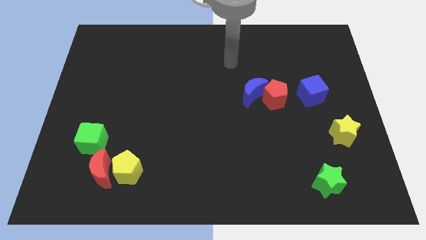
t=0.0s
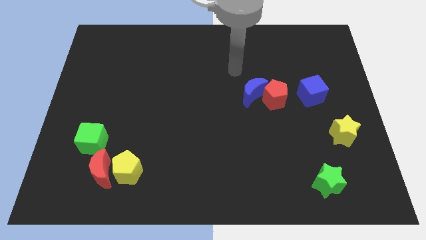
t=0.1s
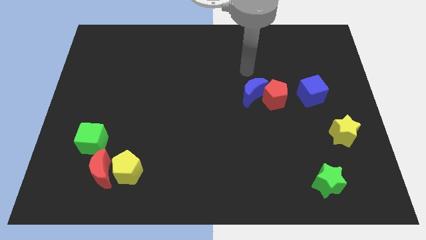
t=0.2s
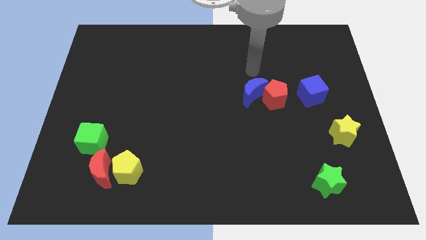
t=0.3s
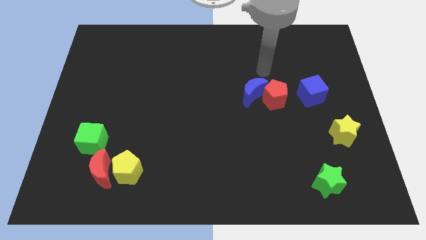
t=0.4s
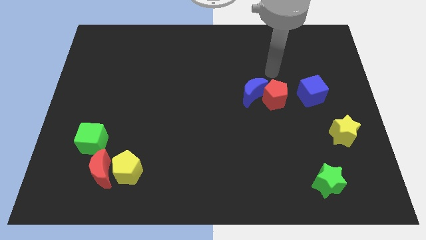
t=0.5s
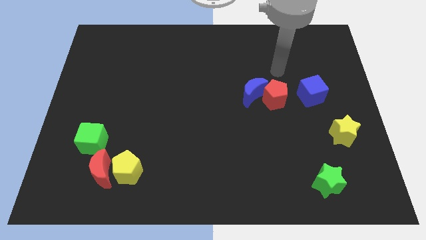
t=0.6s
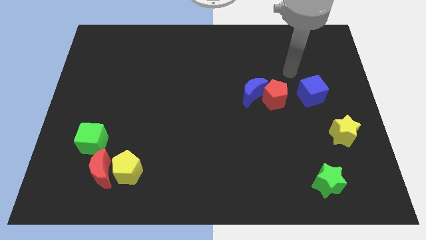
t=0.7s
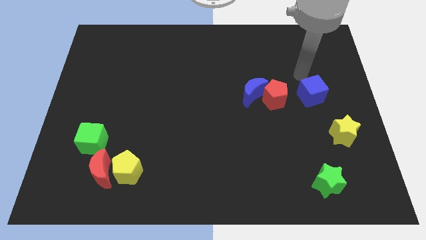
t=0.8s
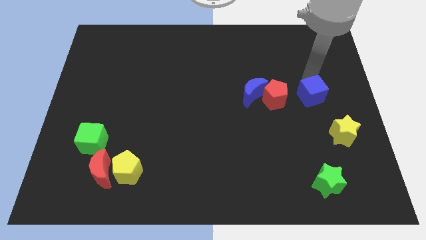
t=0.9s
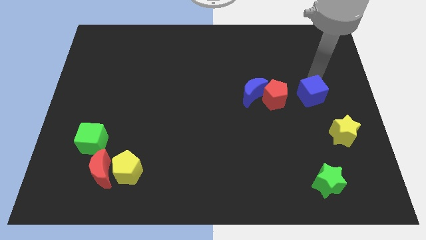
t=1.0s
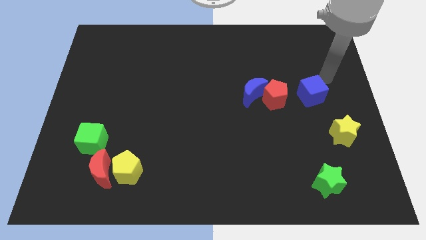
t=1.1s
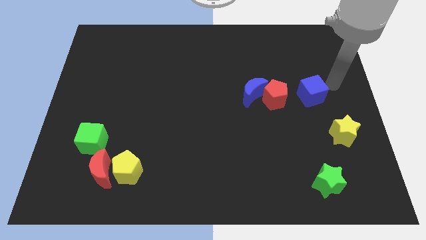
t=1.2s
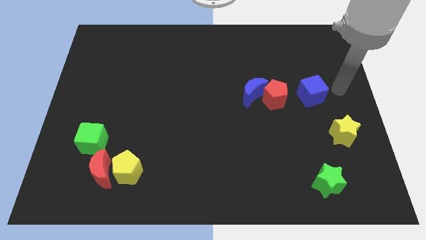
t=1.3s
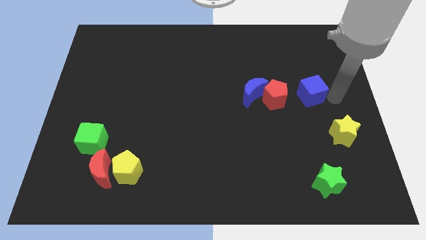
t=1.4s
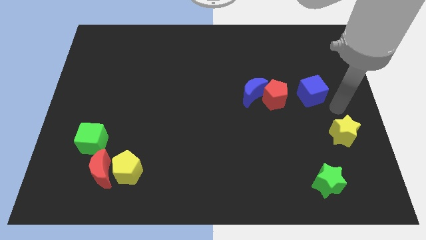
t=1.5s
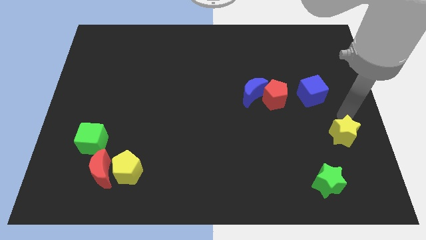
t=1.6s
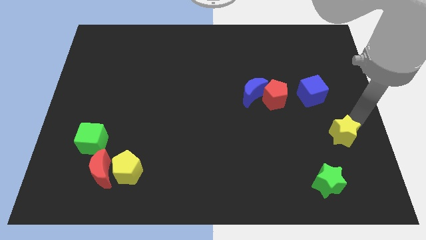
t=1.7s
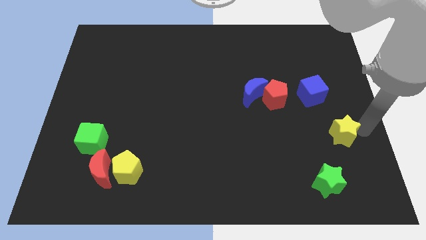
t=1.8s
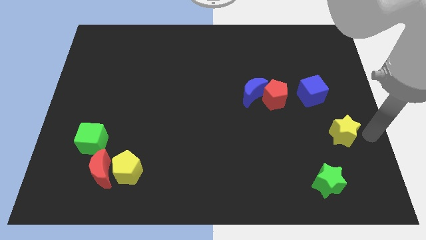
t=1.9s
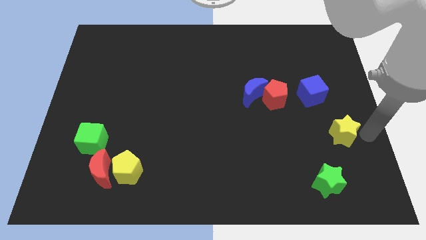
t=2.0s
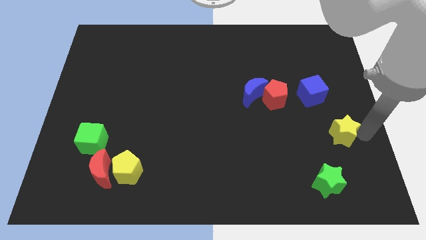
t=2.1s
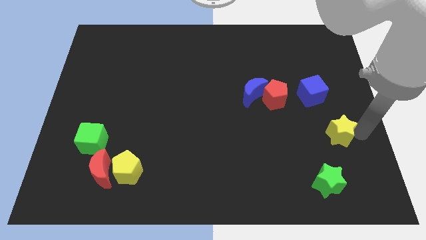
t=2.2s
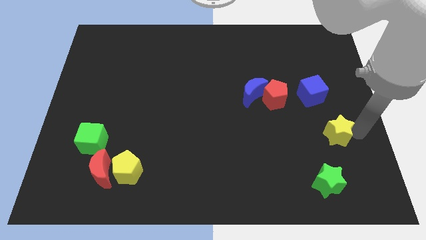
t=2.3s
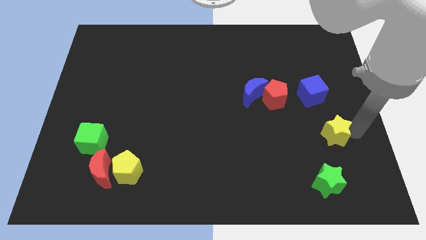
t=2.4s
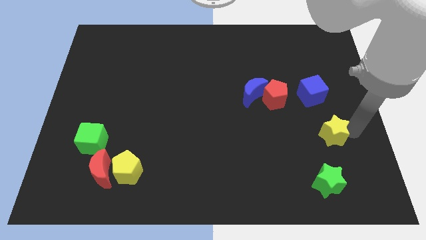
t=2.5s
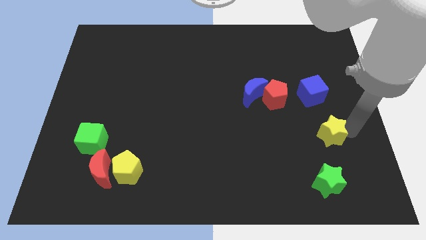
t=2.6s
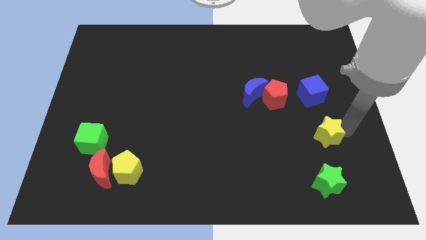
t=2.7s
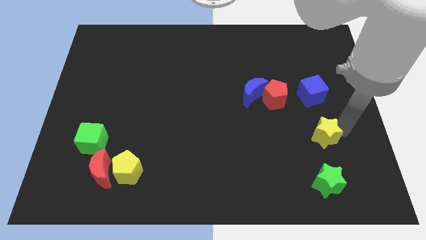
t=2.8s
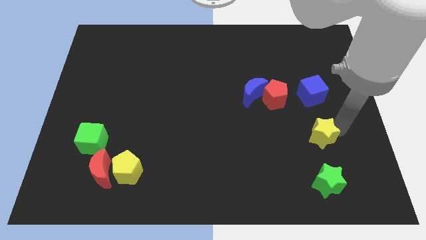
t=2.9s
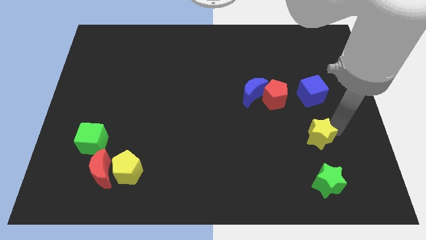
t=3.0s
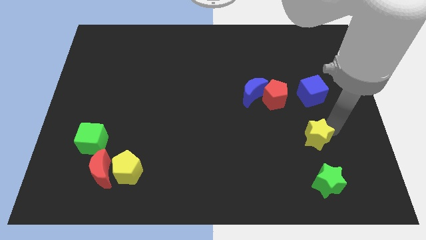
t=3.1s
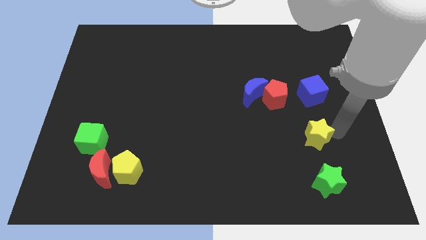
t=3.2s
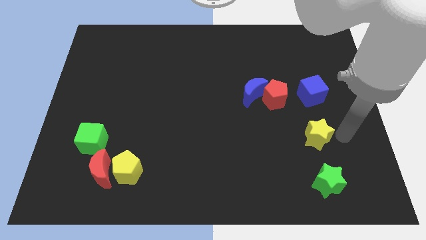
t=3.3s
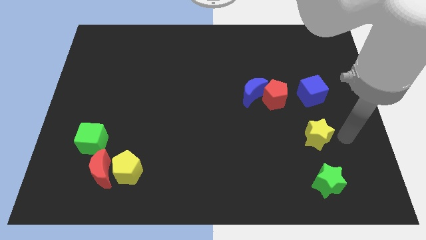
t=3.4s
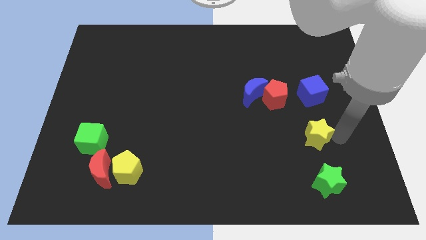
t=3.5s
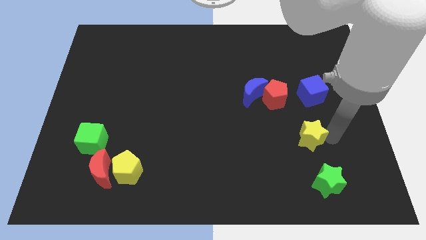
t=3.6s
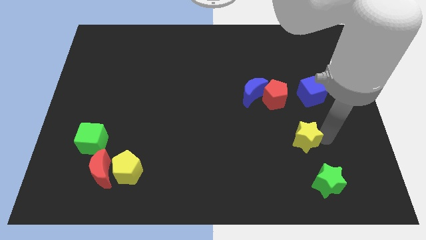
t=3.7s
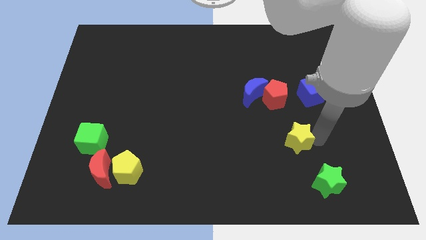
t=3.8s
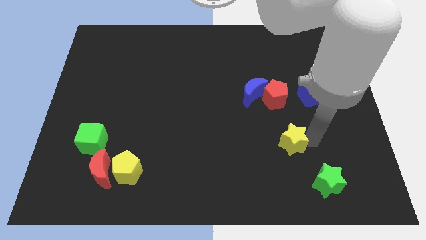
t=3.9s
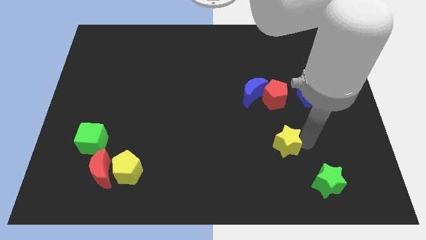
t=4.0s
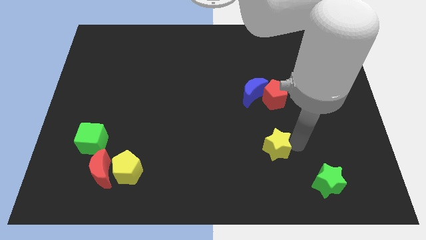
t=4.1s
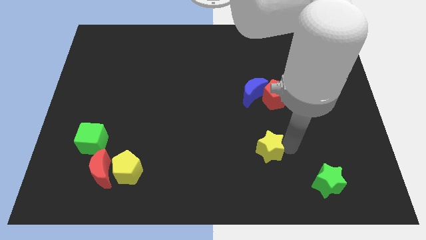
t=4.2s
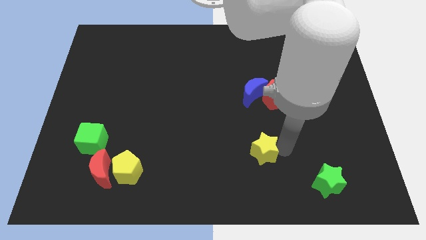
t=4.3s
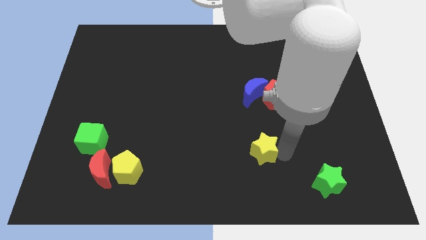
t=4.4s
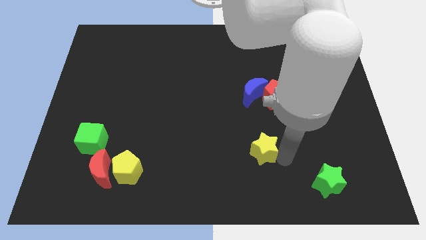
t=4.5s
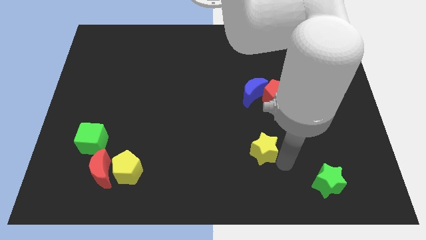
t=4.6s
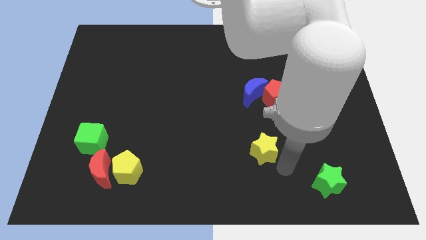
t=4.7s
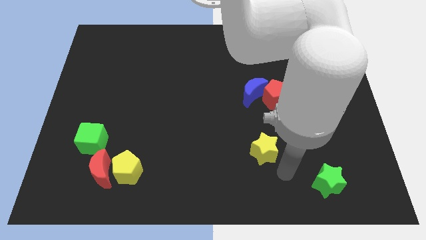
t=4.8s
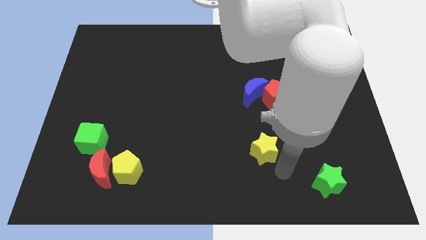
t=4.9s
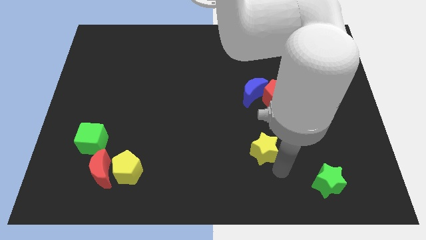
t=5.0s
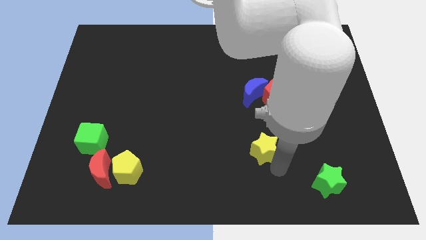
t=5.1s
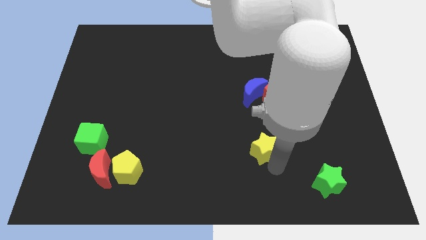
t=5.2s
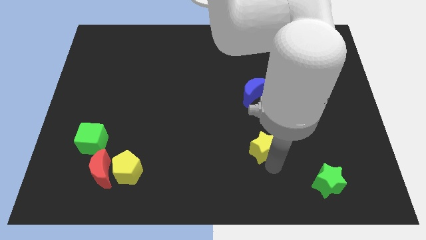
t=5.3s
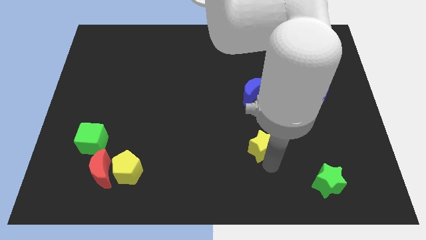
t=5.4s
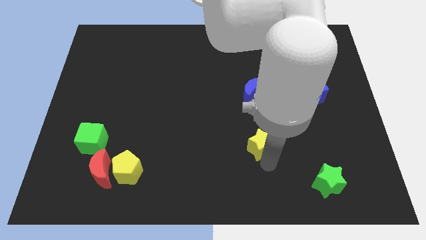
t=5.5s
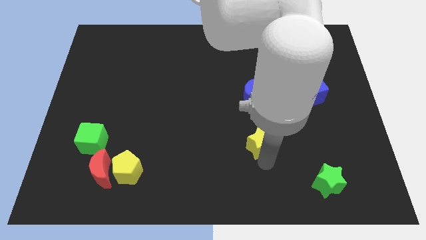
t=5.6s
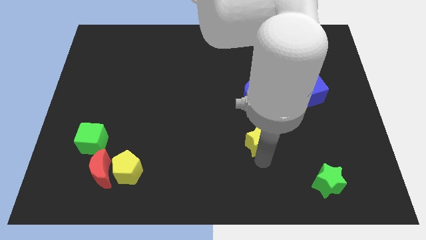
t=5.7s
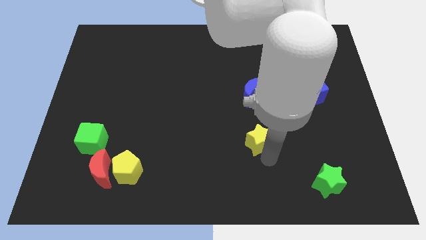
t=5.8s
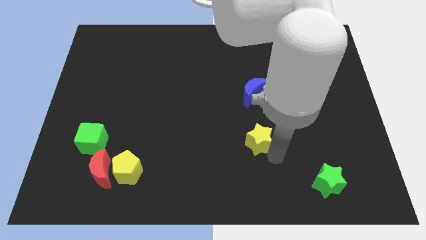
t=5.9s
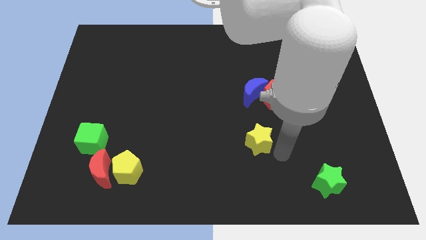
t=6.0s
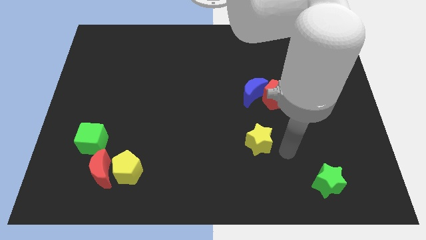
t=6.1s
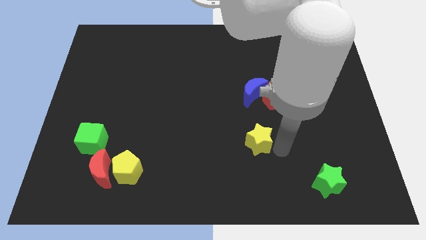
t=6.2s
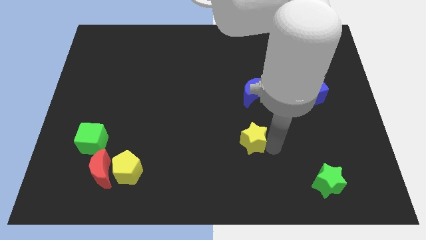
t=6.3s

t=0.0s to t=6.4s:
push the yellow star to the left

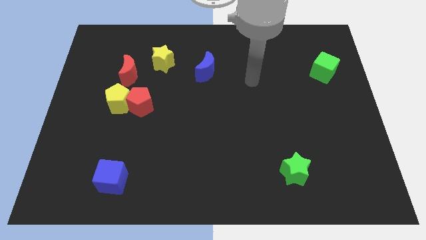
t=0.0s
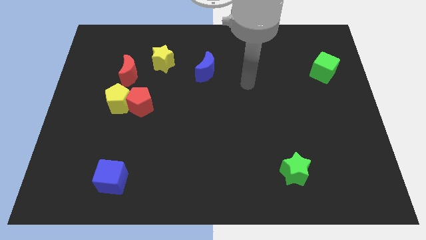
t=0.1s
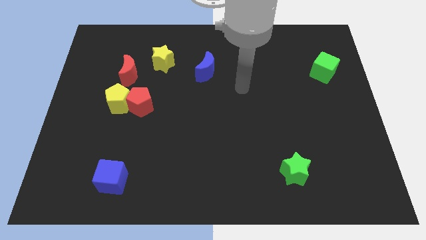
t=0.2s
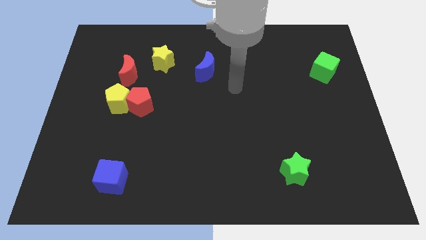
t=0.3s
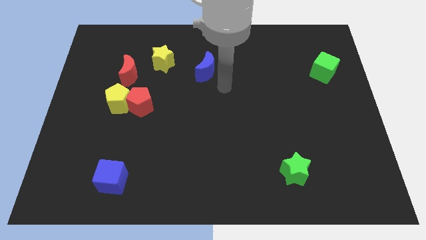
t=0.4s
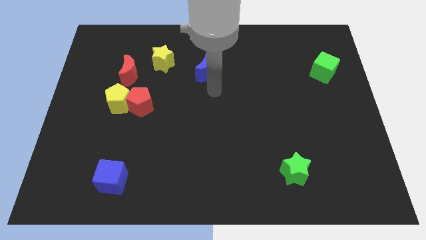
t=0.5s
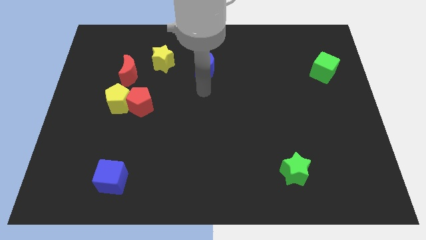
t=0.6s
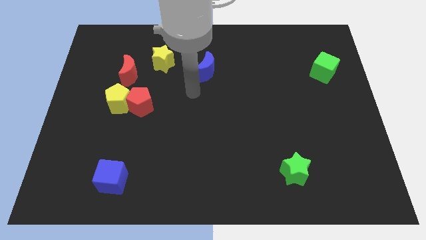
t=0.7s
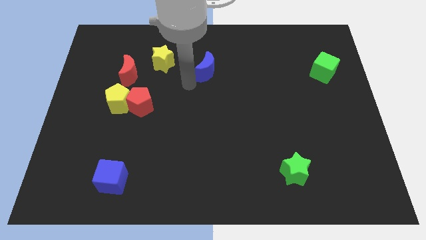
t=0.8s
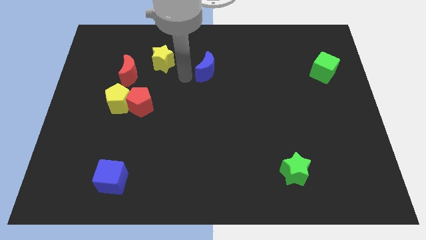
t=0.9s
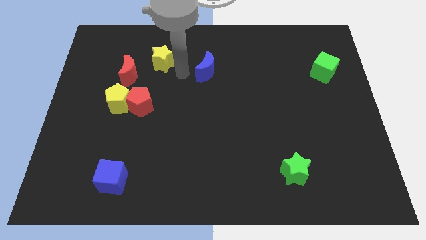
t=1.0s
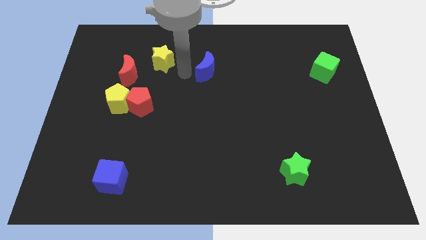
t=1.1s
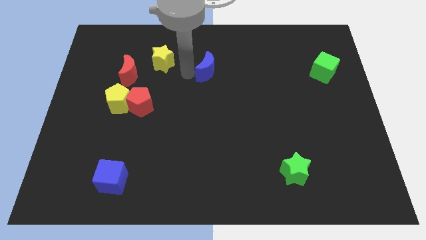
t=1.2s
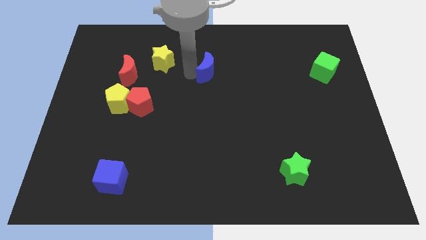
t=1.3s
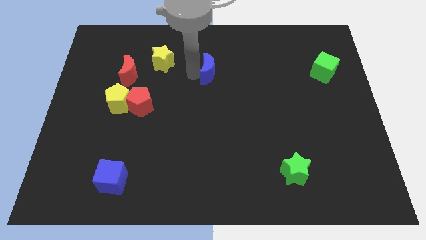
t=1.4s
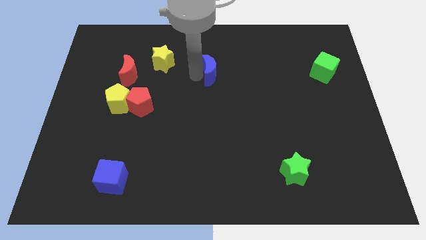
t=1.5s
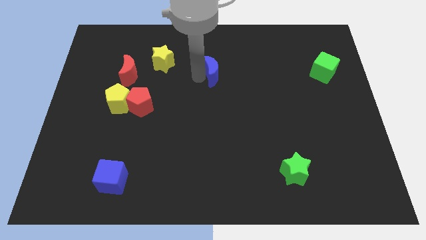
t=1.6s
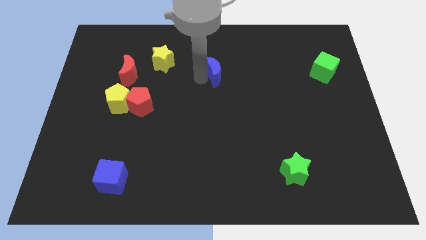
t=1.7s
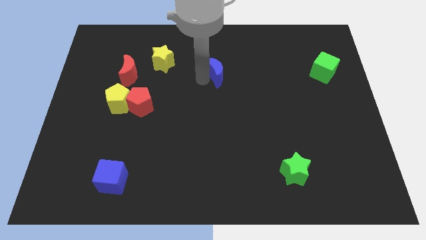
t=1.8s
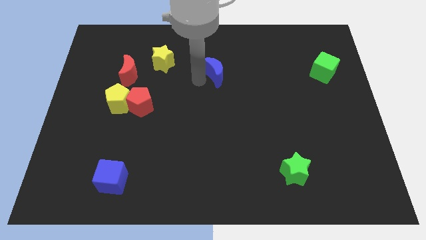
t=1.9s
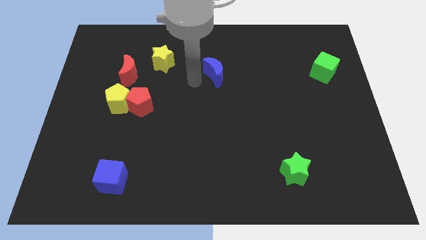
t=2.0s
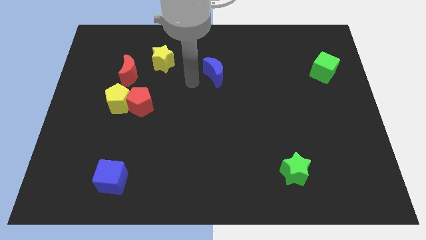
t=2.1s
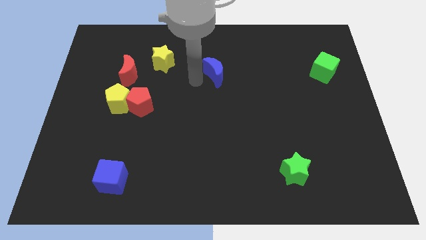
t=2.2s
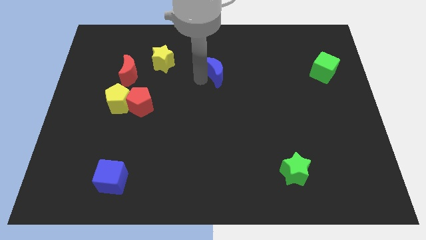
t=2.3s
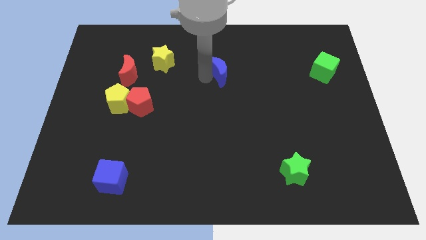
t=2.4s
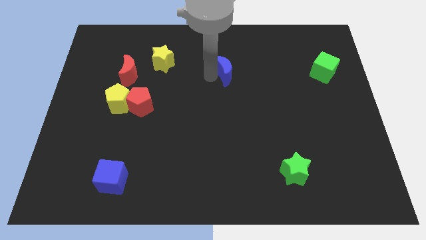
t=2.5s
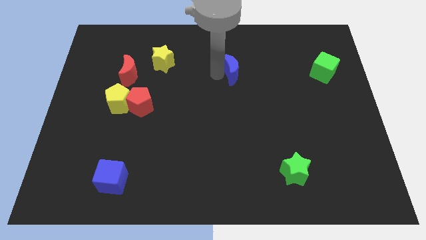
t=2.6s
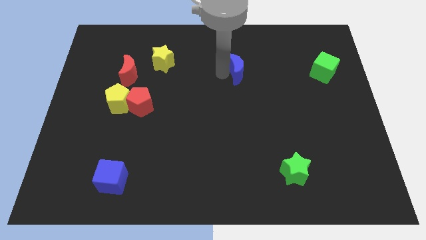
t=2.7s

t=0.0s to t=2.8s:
move the blue moon a bit right
